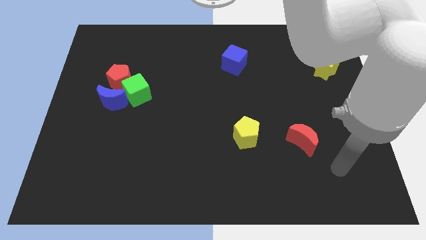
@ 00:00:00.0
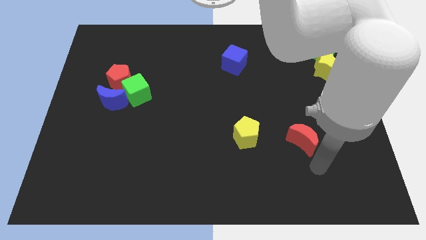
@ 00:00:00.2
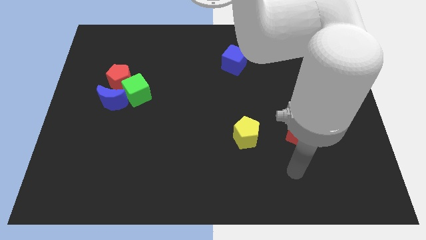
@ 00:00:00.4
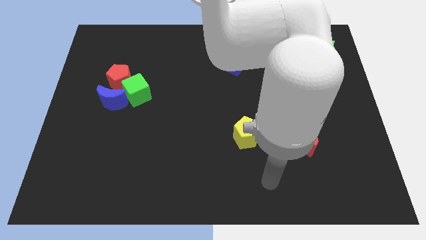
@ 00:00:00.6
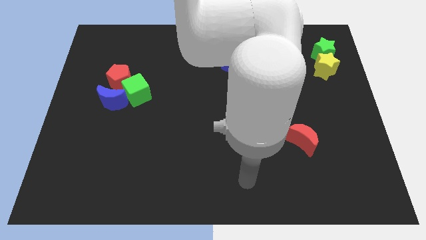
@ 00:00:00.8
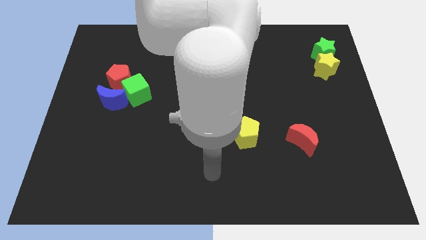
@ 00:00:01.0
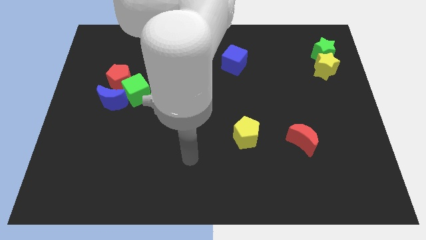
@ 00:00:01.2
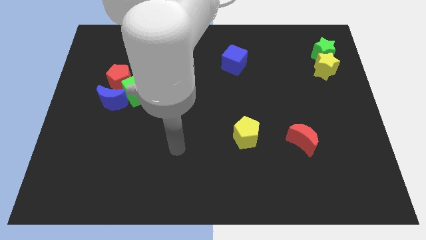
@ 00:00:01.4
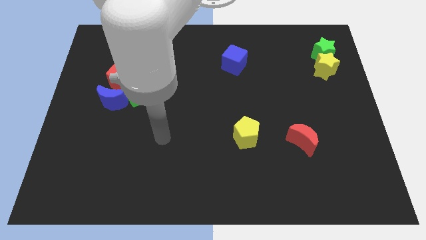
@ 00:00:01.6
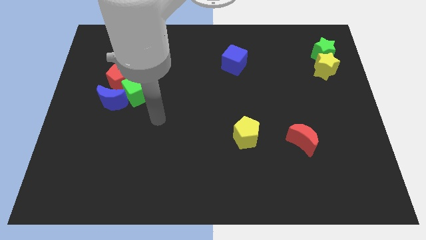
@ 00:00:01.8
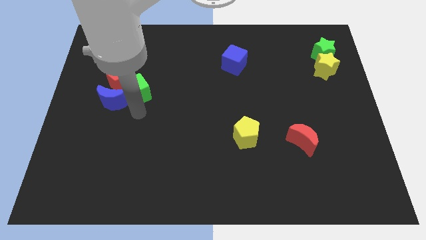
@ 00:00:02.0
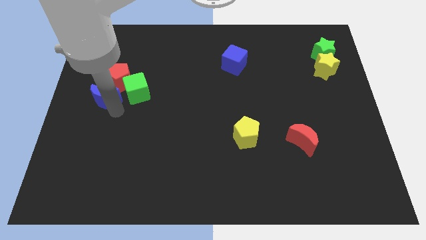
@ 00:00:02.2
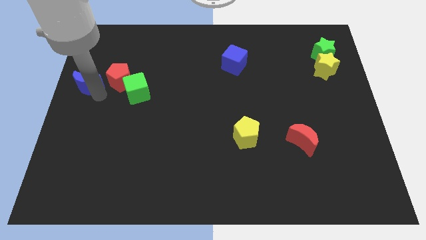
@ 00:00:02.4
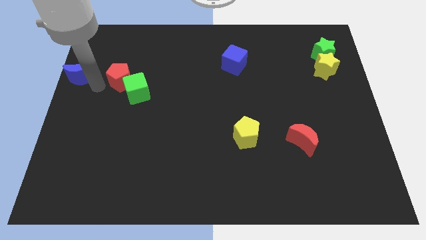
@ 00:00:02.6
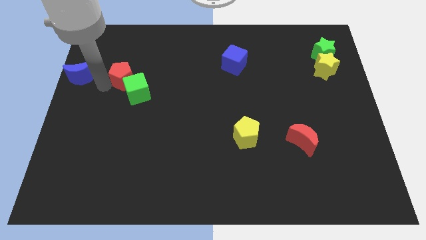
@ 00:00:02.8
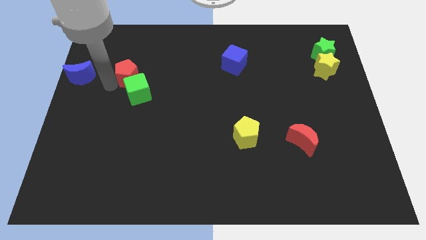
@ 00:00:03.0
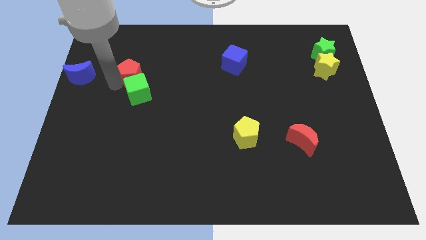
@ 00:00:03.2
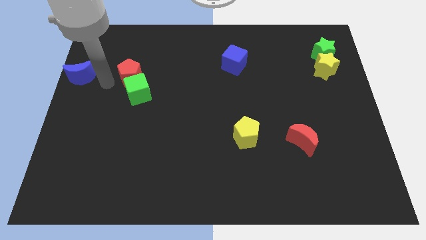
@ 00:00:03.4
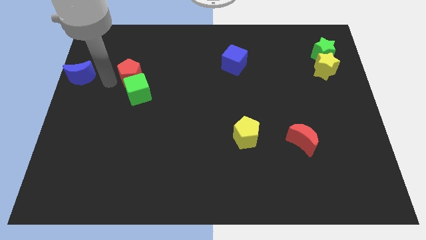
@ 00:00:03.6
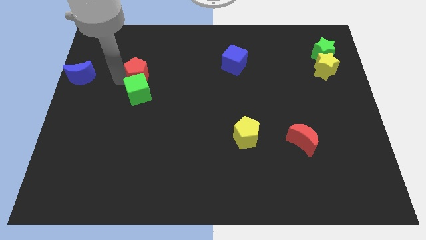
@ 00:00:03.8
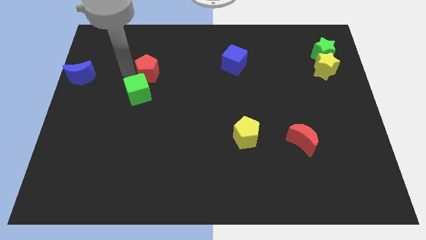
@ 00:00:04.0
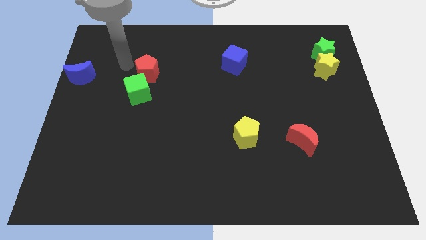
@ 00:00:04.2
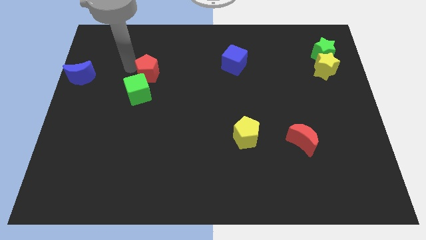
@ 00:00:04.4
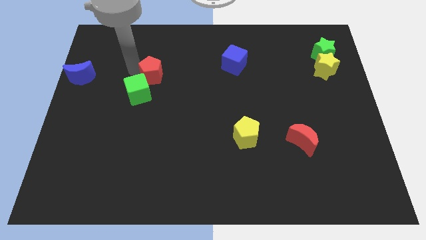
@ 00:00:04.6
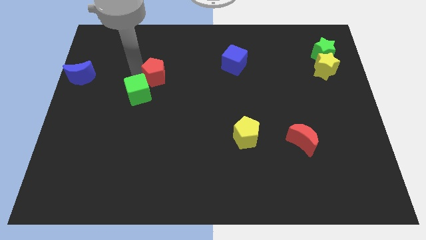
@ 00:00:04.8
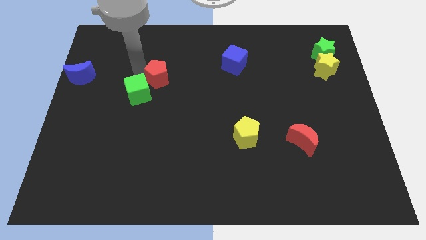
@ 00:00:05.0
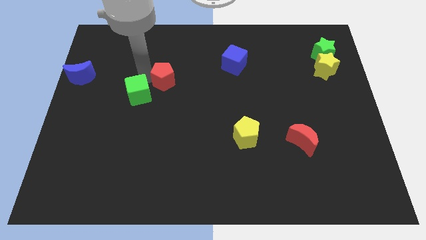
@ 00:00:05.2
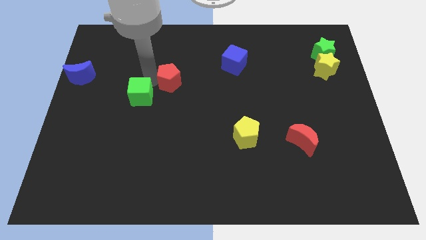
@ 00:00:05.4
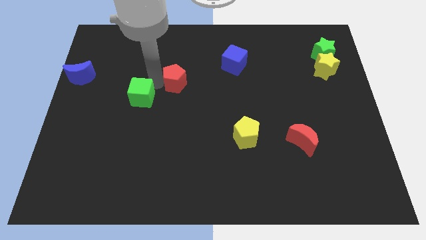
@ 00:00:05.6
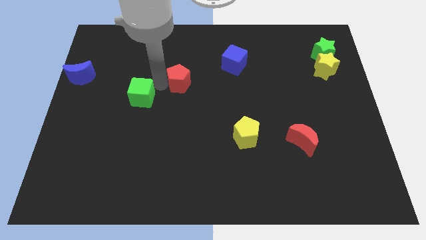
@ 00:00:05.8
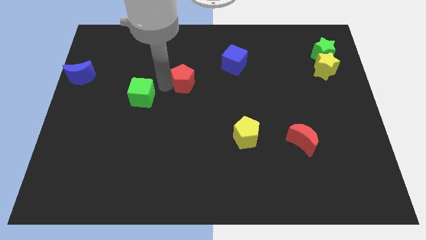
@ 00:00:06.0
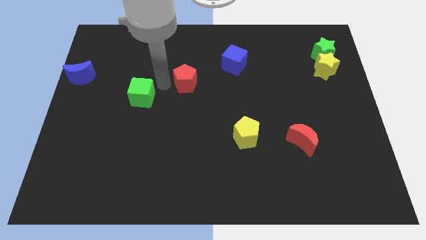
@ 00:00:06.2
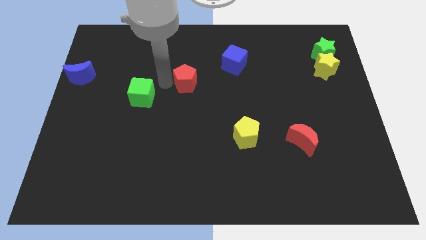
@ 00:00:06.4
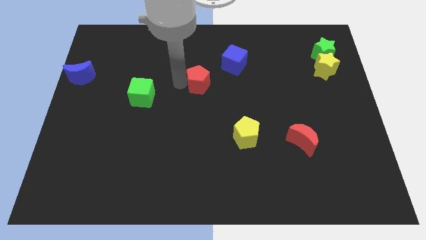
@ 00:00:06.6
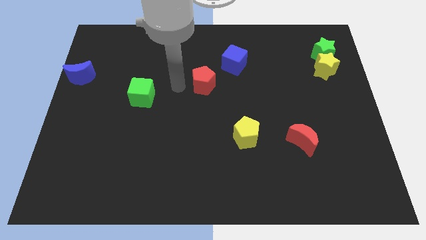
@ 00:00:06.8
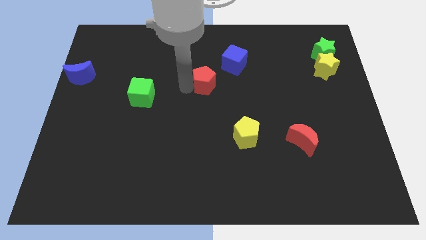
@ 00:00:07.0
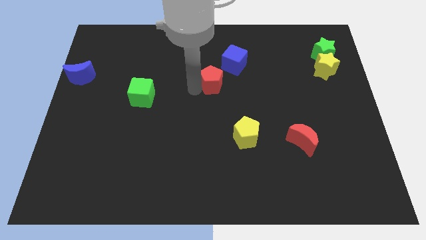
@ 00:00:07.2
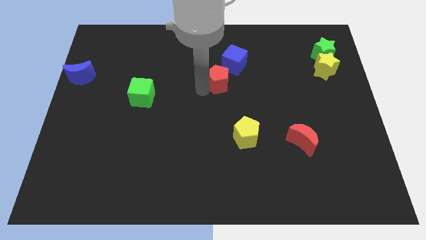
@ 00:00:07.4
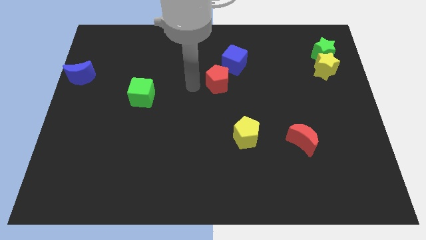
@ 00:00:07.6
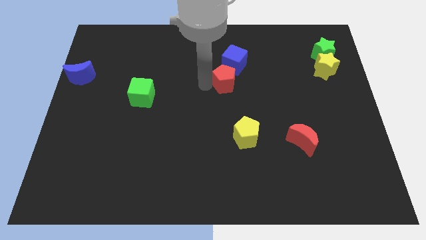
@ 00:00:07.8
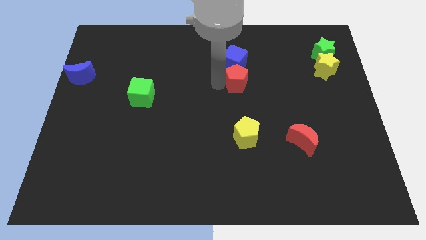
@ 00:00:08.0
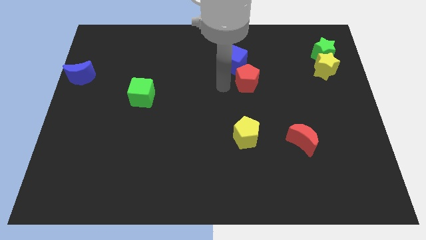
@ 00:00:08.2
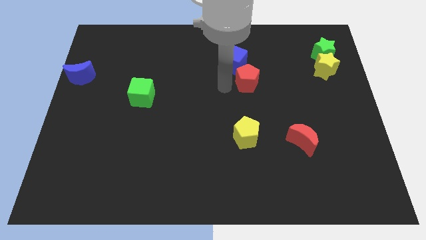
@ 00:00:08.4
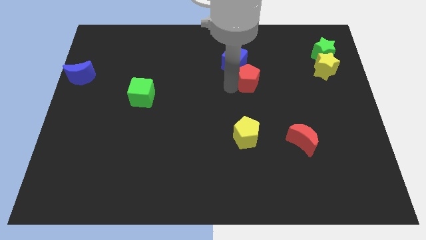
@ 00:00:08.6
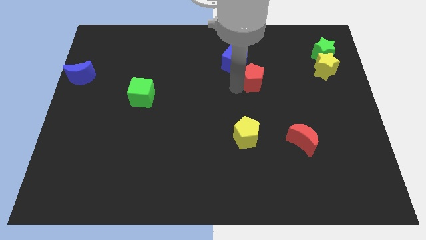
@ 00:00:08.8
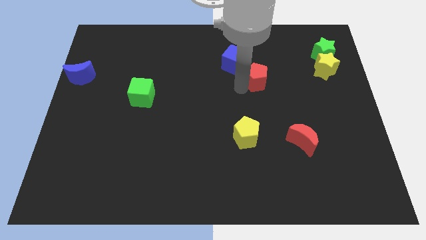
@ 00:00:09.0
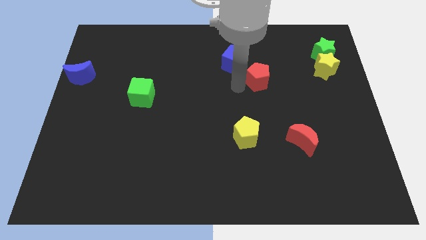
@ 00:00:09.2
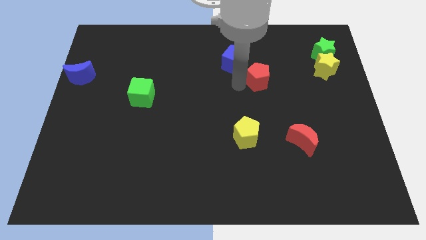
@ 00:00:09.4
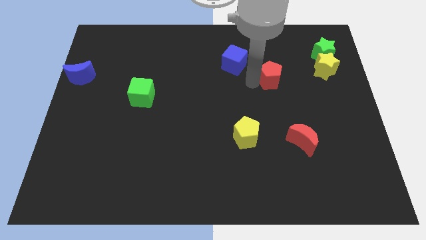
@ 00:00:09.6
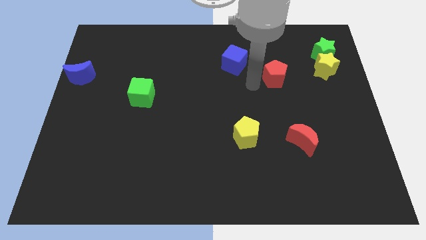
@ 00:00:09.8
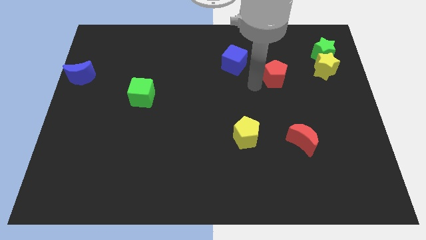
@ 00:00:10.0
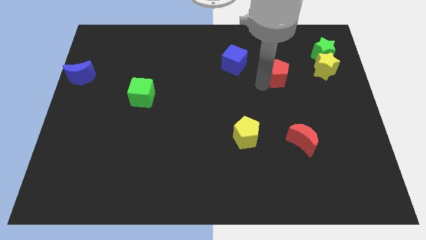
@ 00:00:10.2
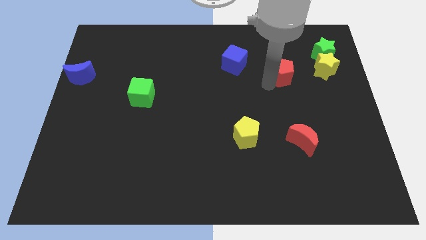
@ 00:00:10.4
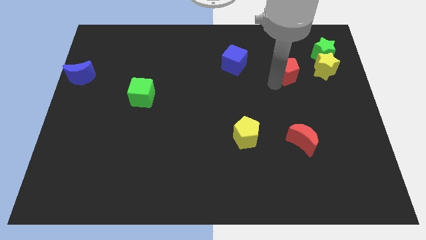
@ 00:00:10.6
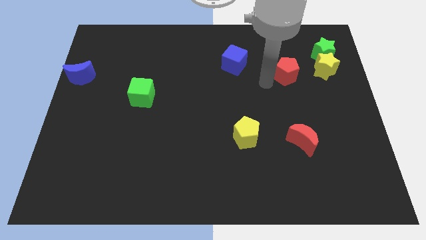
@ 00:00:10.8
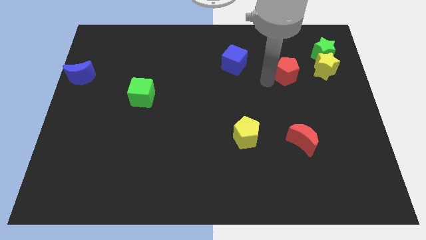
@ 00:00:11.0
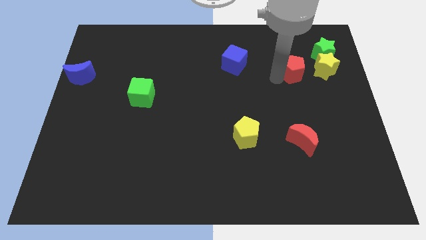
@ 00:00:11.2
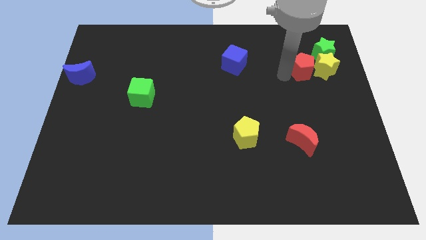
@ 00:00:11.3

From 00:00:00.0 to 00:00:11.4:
put the red pentagon to the yellow star

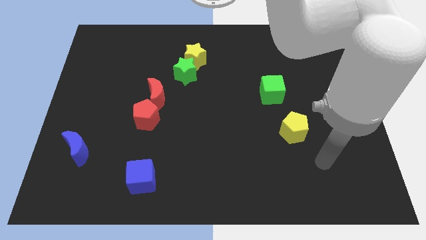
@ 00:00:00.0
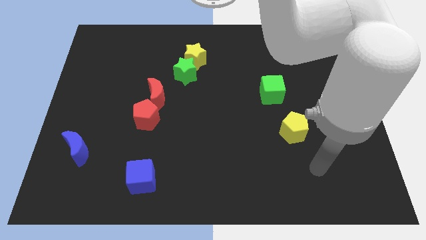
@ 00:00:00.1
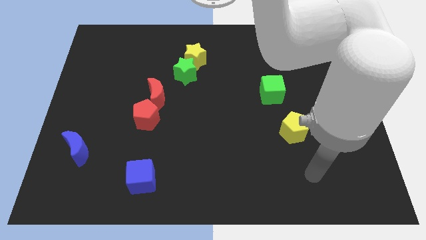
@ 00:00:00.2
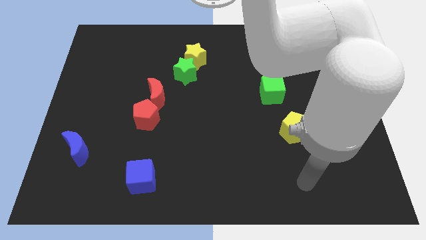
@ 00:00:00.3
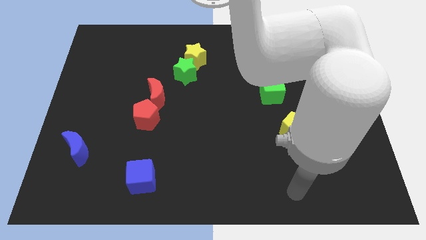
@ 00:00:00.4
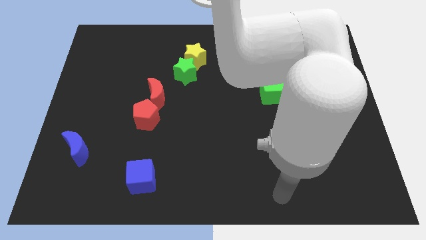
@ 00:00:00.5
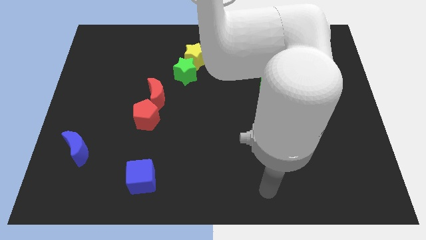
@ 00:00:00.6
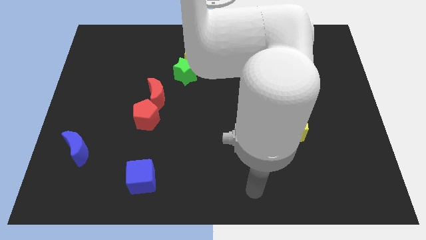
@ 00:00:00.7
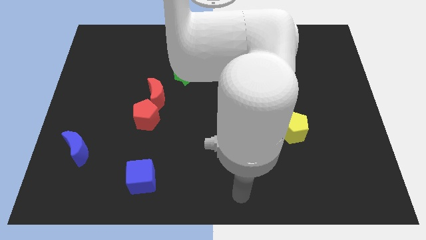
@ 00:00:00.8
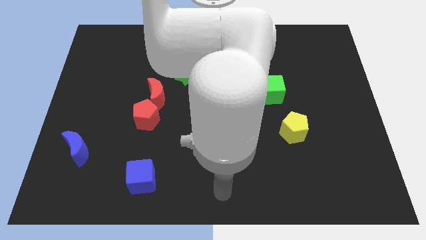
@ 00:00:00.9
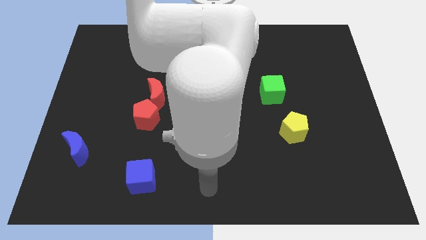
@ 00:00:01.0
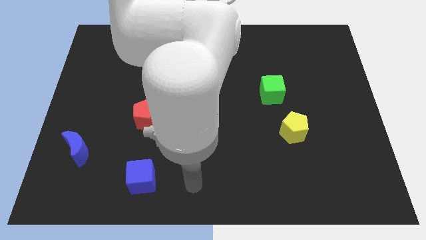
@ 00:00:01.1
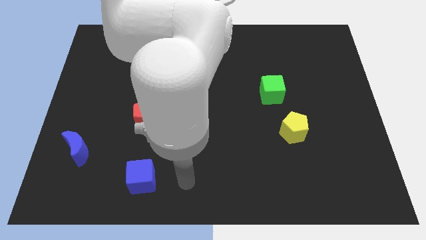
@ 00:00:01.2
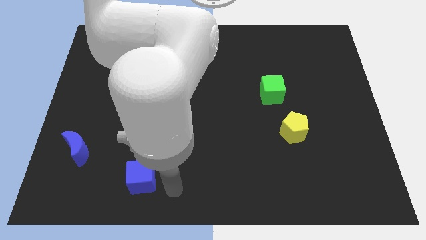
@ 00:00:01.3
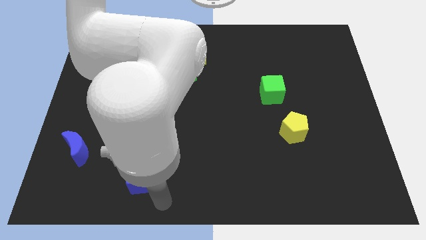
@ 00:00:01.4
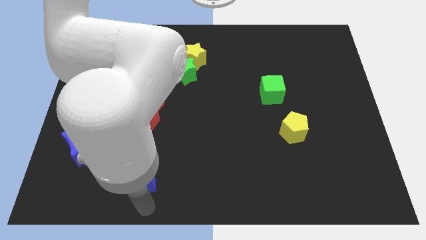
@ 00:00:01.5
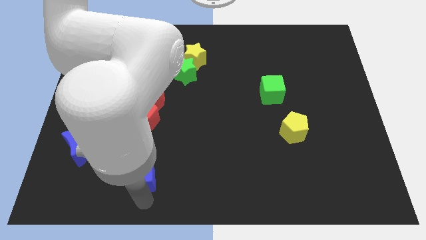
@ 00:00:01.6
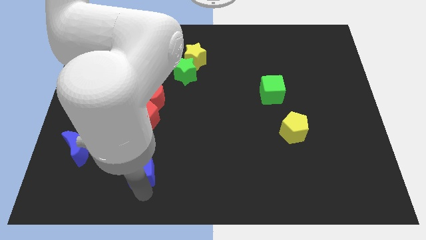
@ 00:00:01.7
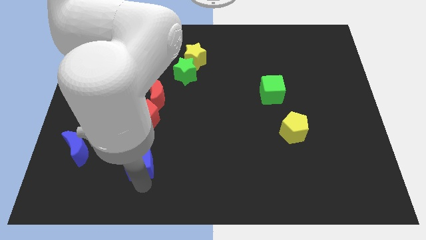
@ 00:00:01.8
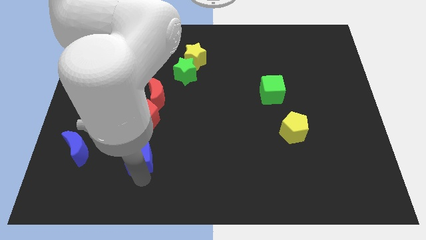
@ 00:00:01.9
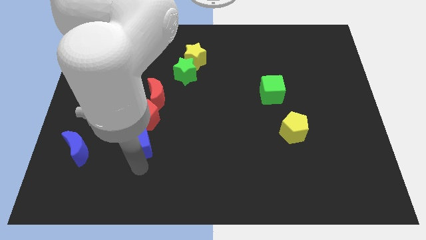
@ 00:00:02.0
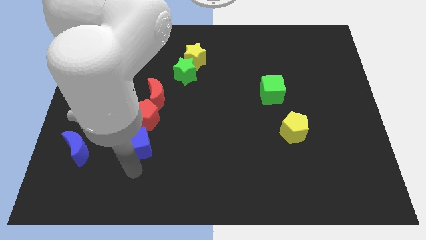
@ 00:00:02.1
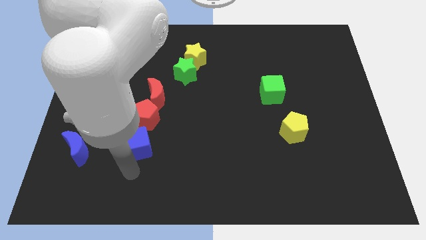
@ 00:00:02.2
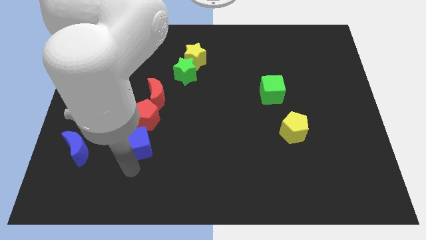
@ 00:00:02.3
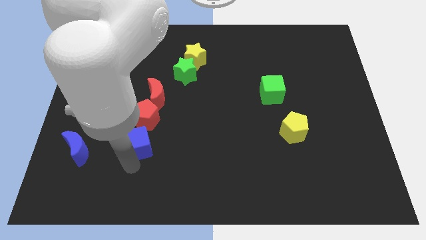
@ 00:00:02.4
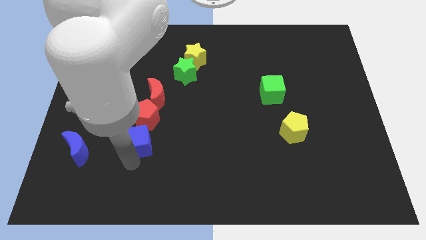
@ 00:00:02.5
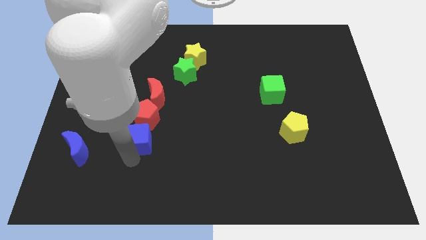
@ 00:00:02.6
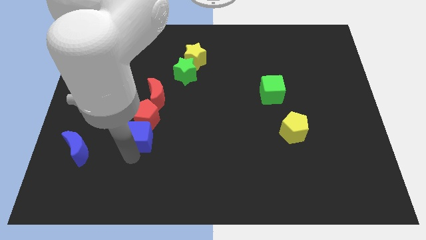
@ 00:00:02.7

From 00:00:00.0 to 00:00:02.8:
move the blue cube next to the red pentagon
